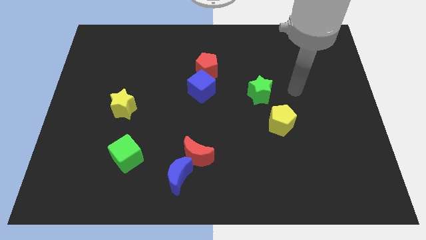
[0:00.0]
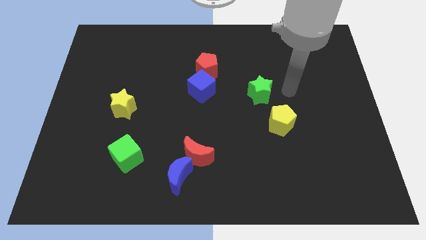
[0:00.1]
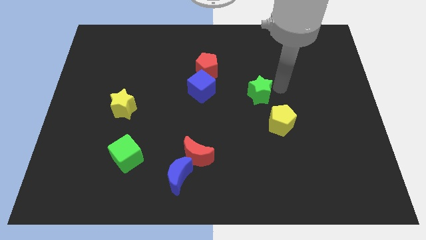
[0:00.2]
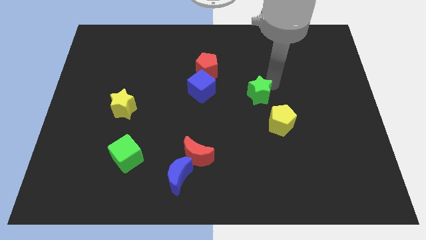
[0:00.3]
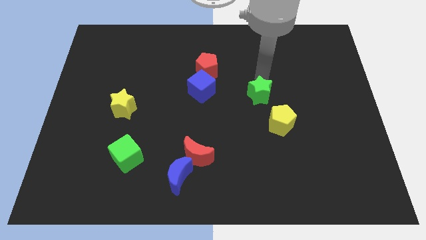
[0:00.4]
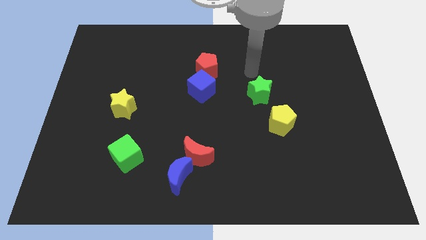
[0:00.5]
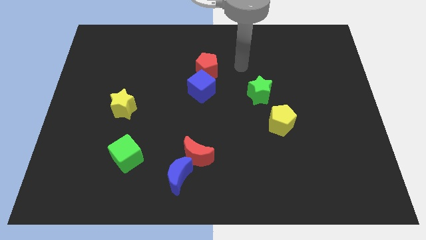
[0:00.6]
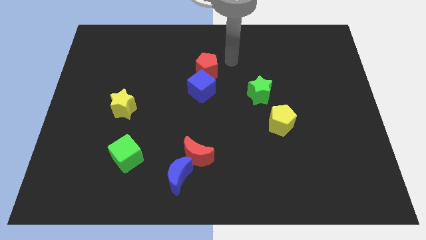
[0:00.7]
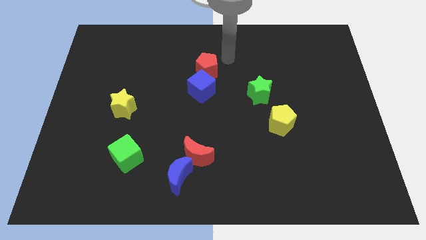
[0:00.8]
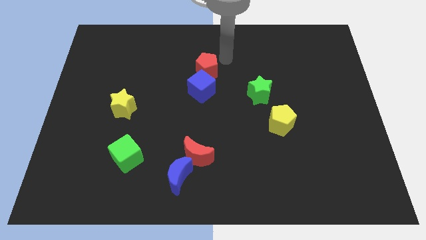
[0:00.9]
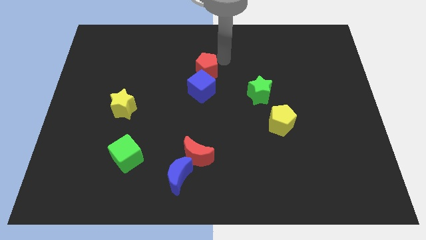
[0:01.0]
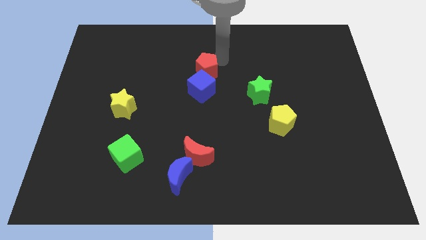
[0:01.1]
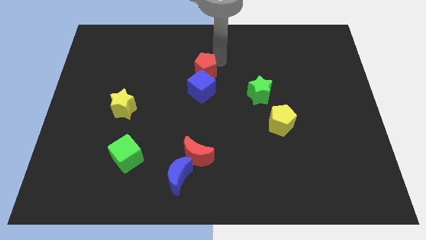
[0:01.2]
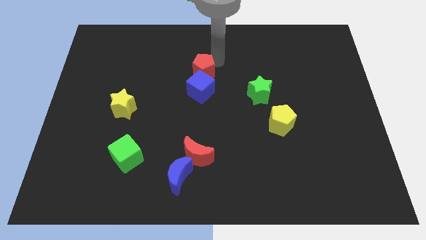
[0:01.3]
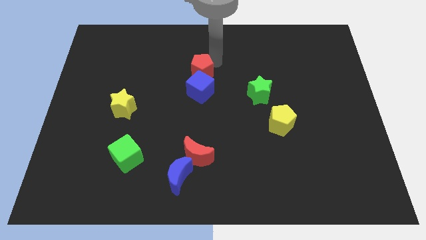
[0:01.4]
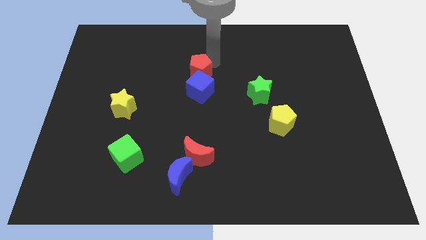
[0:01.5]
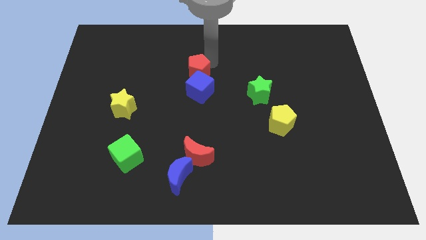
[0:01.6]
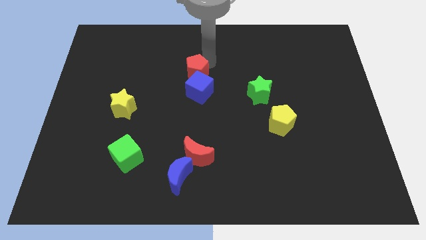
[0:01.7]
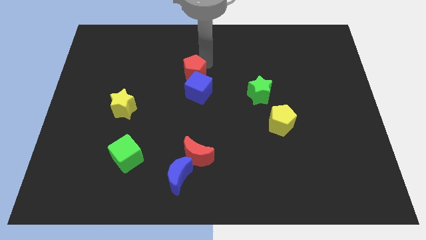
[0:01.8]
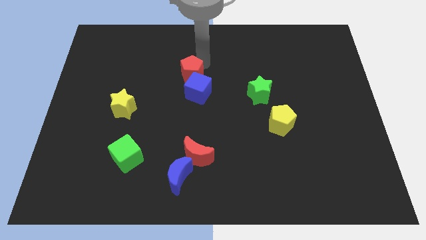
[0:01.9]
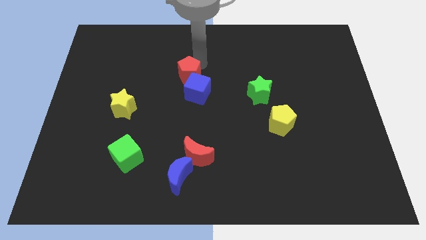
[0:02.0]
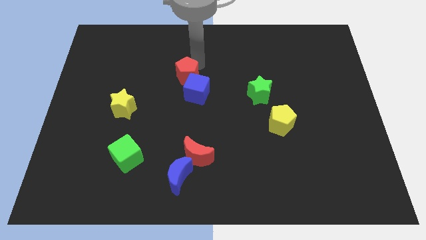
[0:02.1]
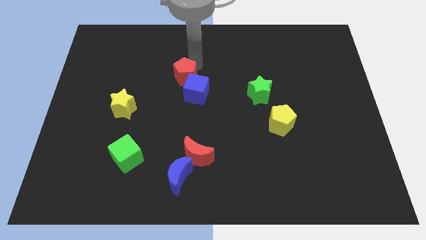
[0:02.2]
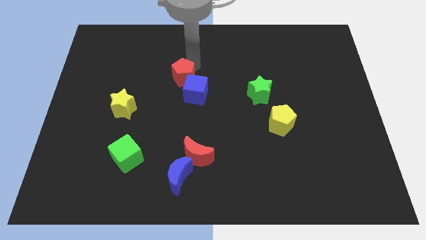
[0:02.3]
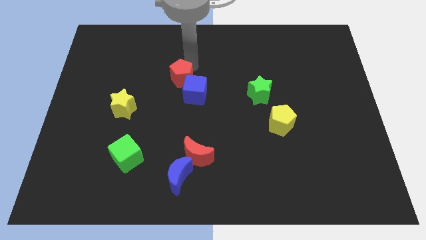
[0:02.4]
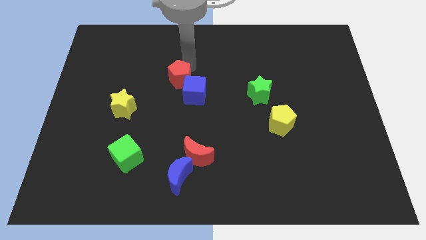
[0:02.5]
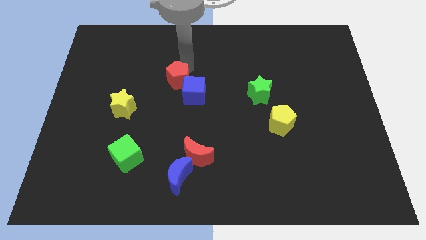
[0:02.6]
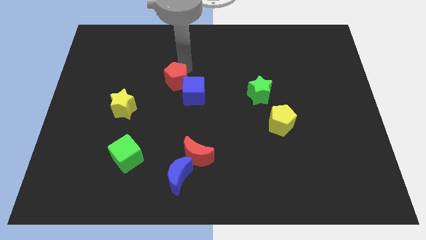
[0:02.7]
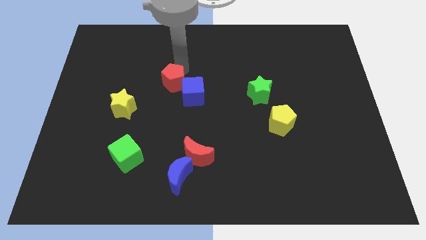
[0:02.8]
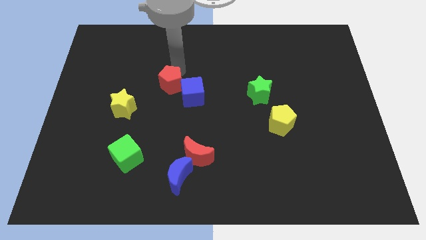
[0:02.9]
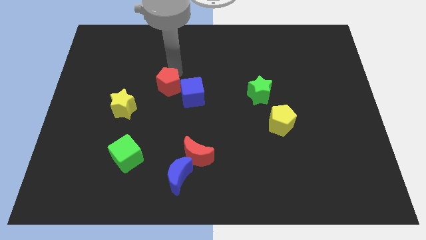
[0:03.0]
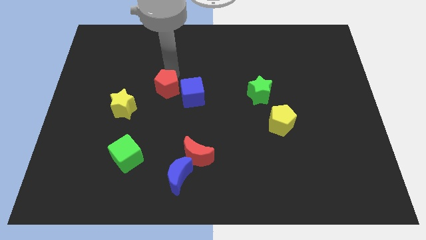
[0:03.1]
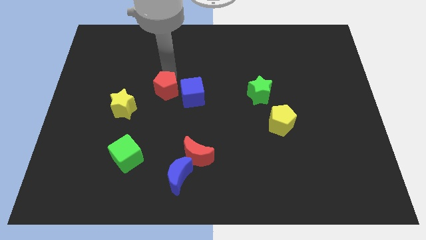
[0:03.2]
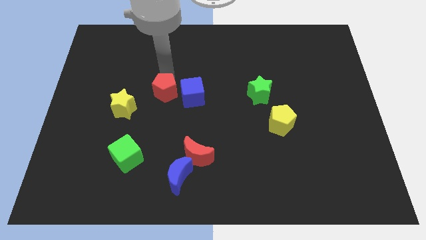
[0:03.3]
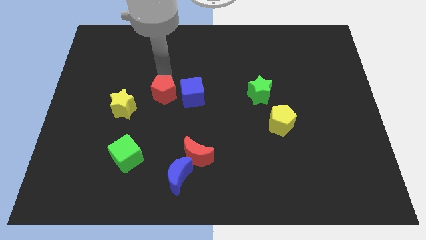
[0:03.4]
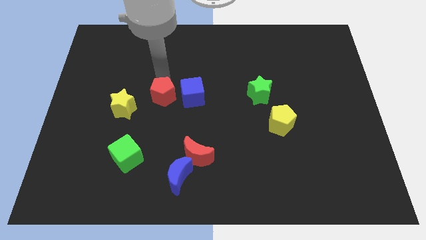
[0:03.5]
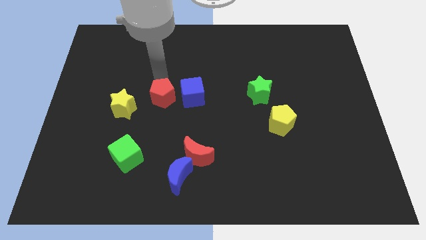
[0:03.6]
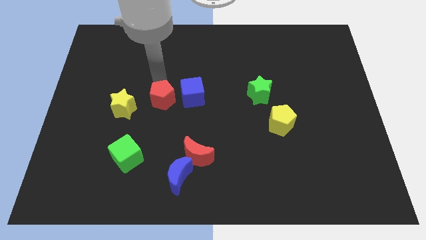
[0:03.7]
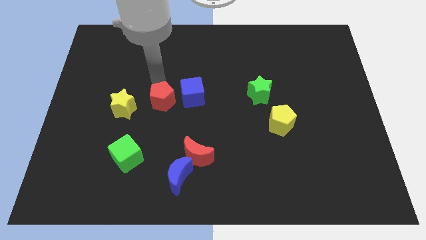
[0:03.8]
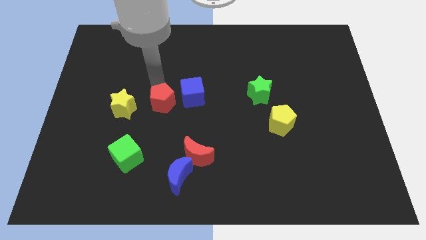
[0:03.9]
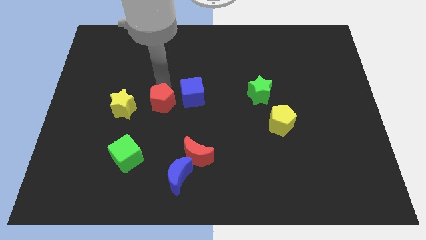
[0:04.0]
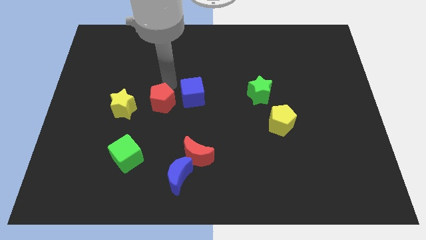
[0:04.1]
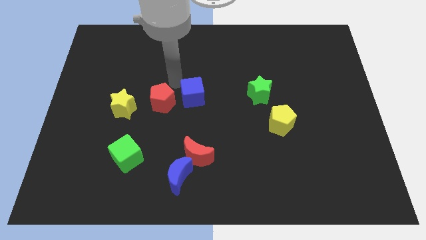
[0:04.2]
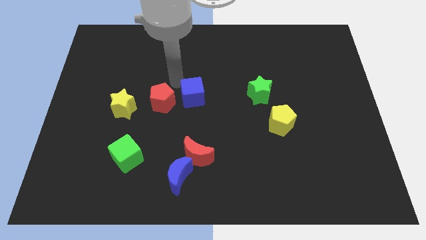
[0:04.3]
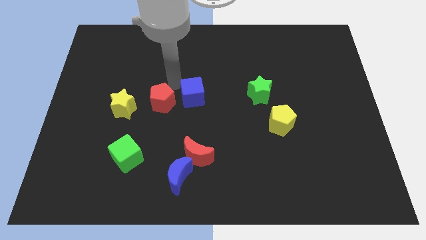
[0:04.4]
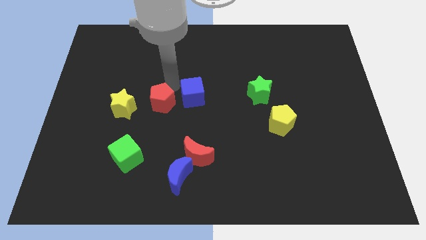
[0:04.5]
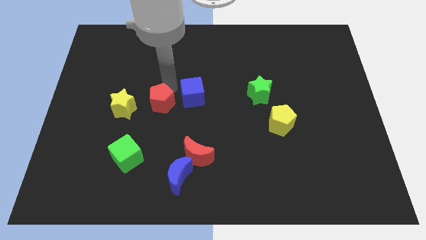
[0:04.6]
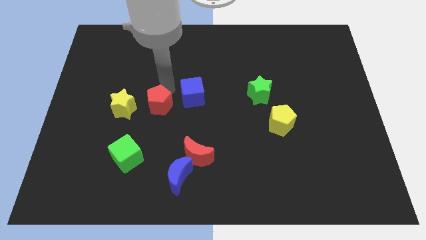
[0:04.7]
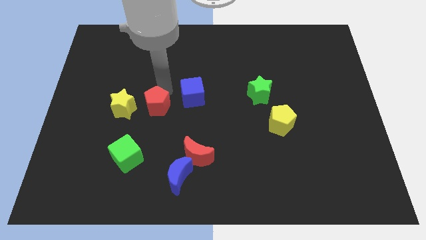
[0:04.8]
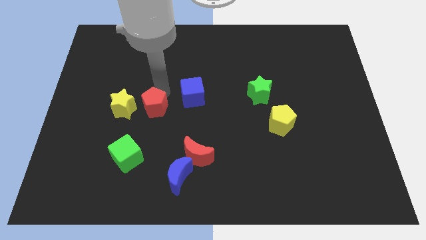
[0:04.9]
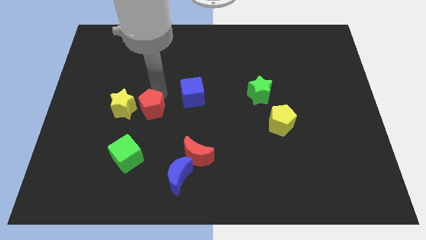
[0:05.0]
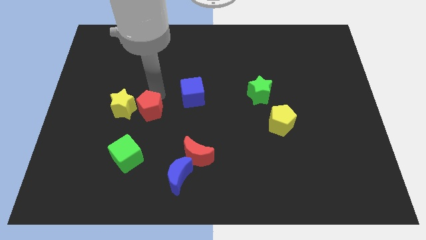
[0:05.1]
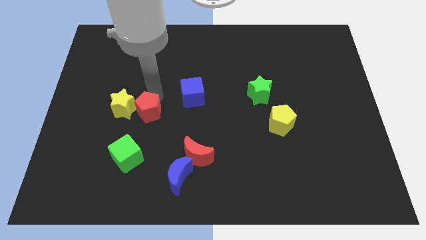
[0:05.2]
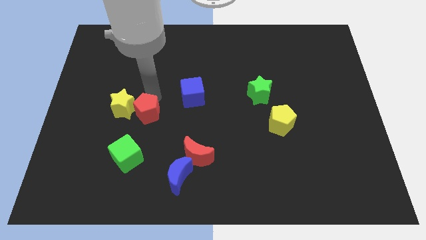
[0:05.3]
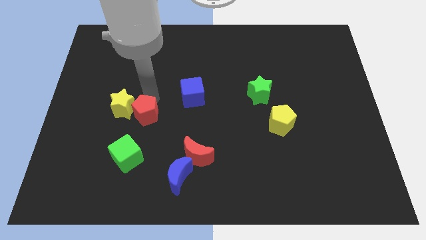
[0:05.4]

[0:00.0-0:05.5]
slide the red pentagon downwards and to the left

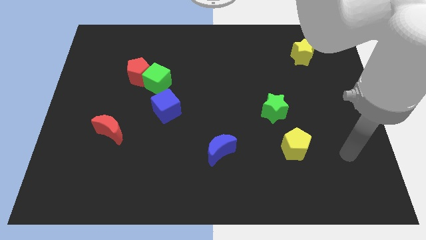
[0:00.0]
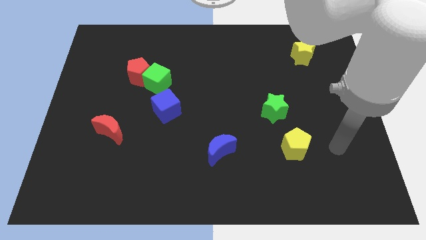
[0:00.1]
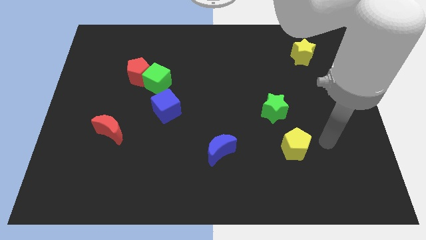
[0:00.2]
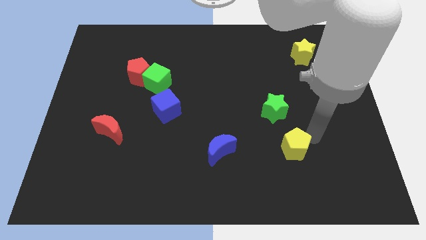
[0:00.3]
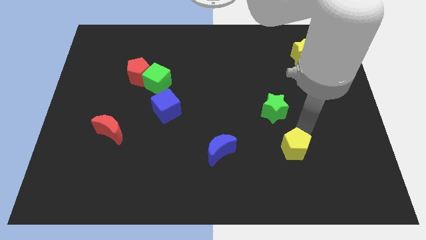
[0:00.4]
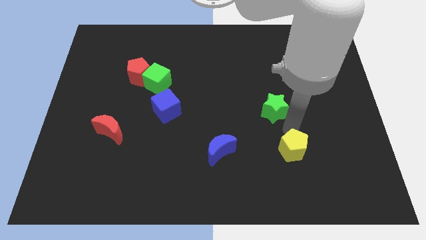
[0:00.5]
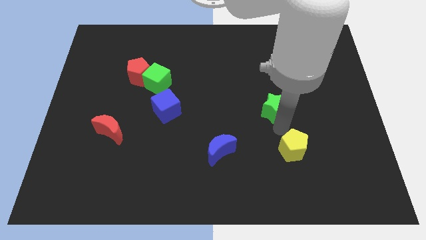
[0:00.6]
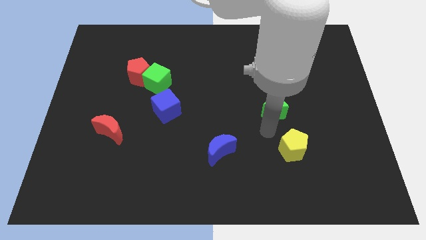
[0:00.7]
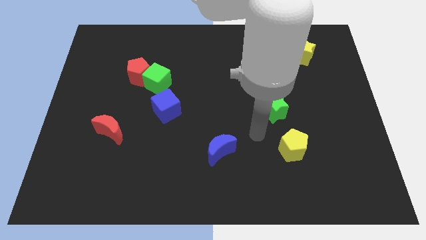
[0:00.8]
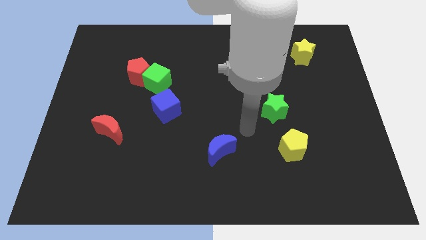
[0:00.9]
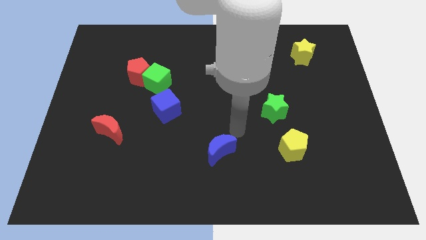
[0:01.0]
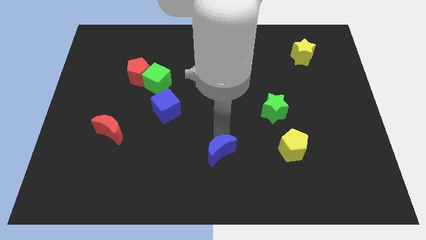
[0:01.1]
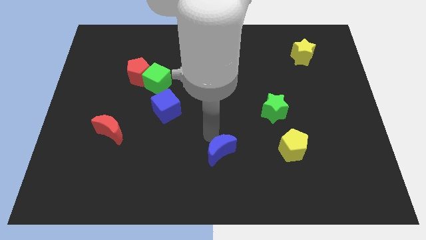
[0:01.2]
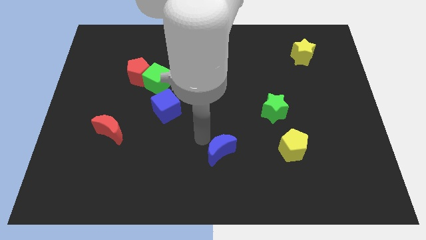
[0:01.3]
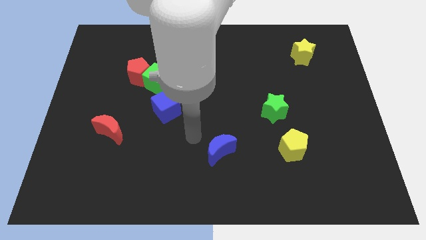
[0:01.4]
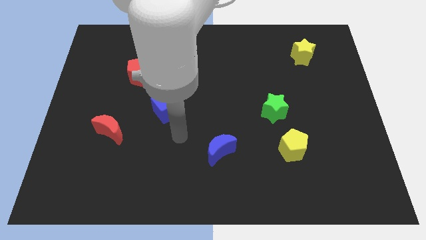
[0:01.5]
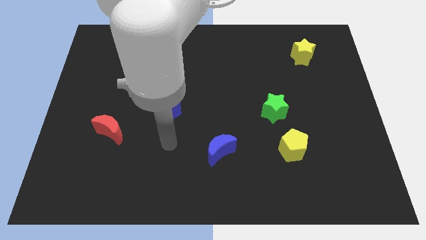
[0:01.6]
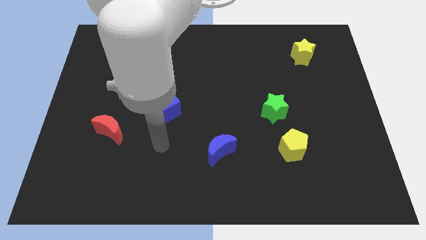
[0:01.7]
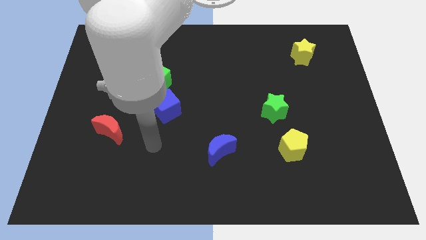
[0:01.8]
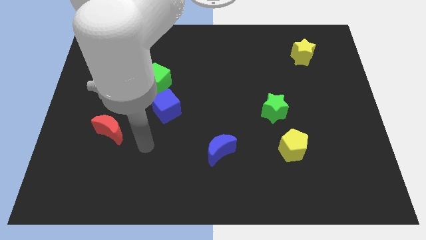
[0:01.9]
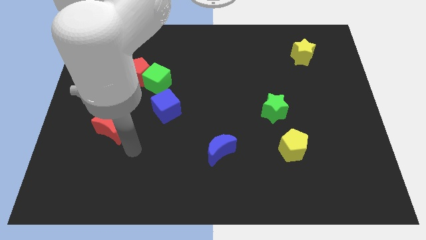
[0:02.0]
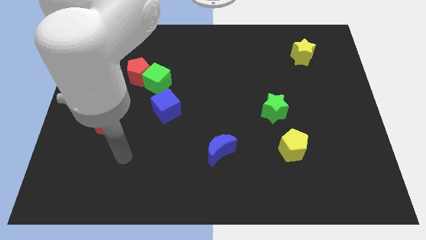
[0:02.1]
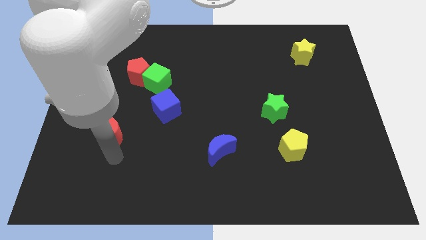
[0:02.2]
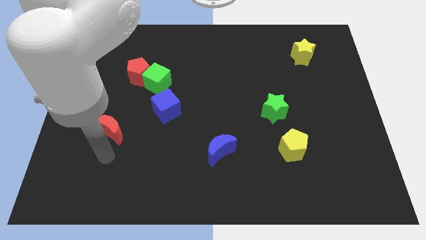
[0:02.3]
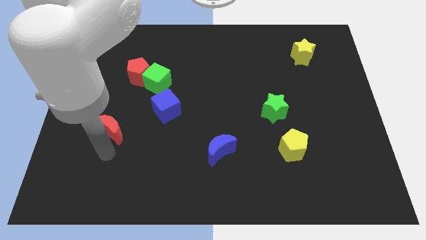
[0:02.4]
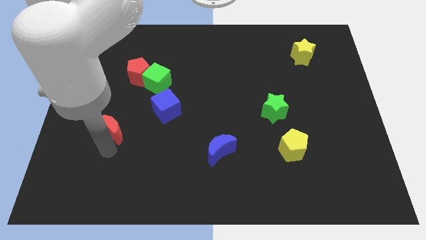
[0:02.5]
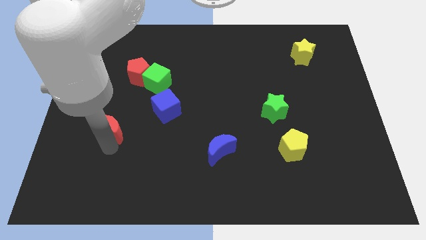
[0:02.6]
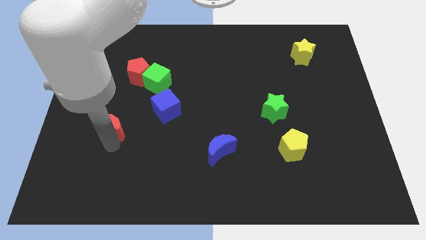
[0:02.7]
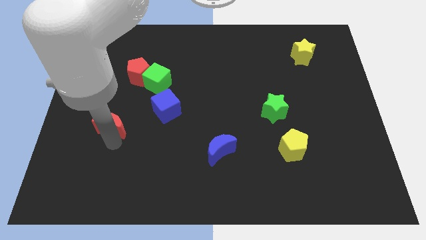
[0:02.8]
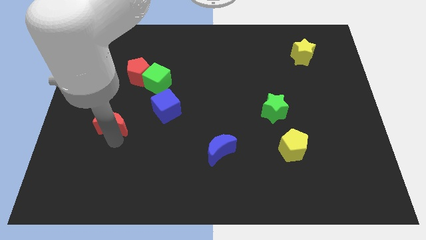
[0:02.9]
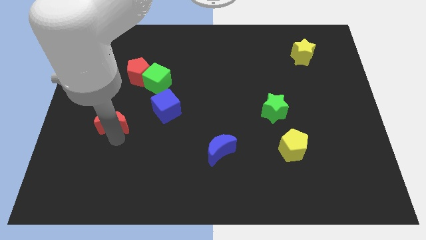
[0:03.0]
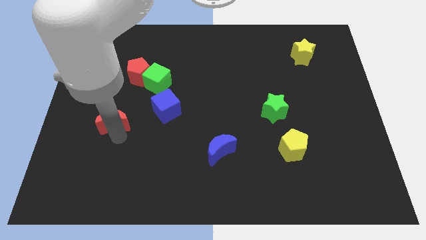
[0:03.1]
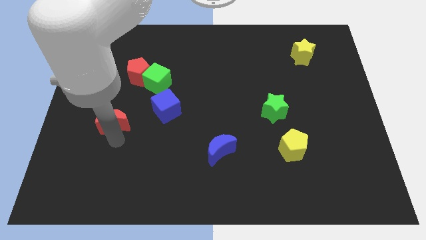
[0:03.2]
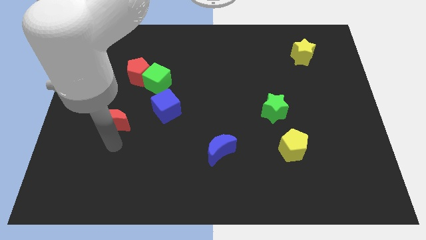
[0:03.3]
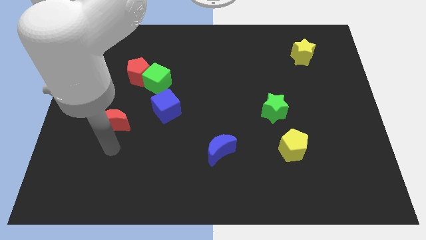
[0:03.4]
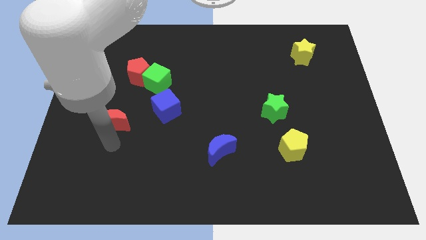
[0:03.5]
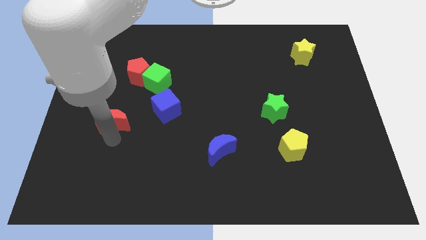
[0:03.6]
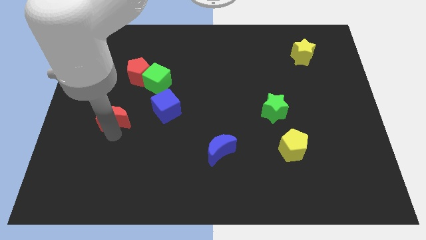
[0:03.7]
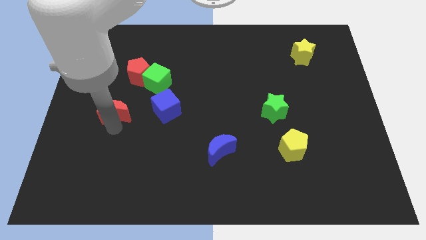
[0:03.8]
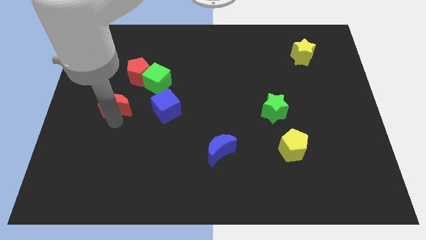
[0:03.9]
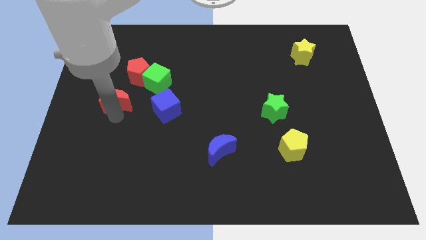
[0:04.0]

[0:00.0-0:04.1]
slide the red moon slightly up
